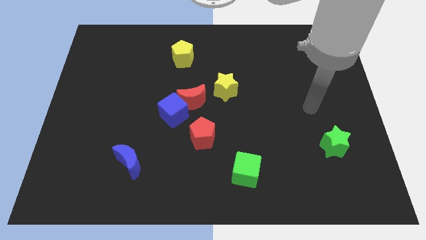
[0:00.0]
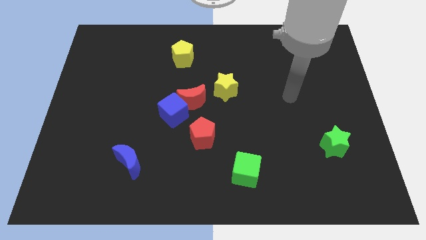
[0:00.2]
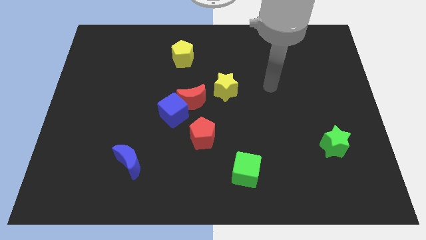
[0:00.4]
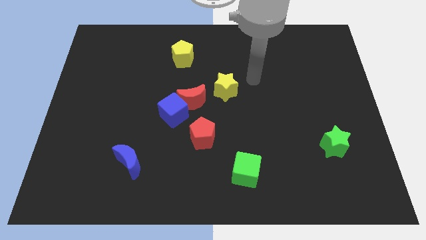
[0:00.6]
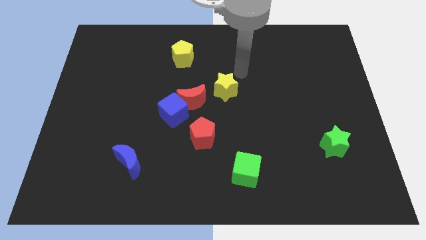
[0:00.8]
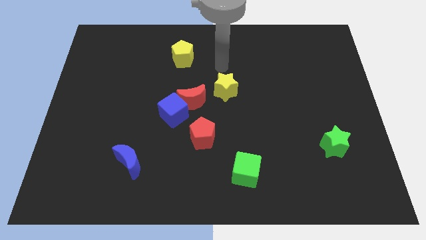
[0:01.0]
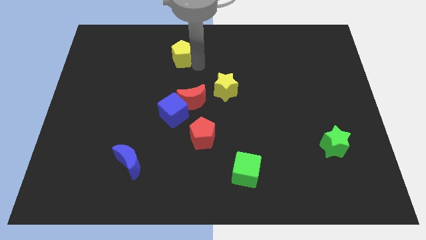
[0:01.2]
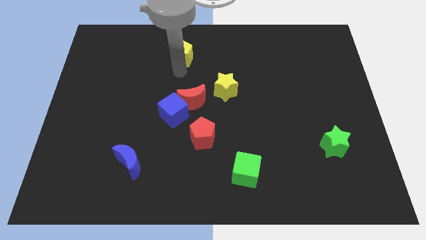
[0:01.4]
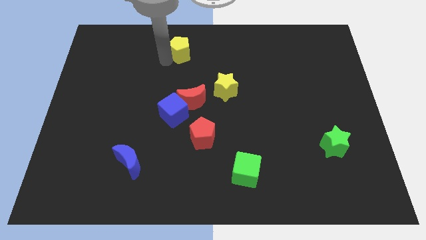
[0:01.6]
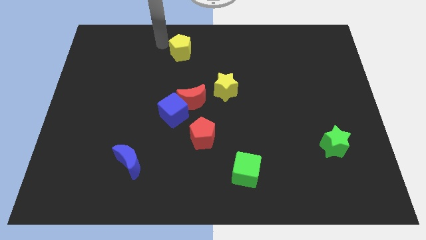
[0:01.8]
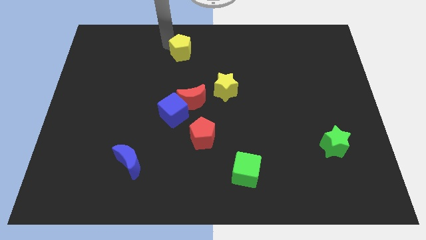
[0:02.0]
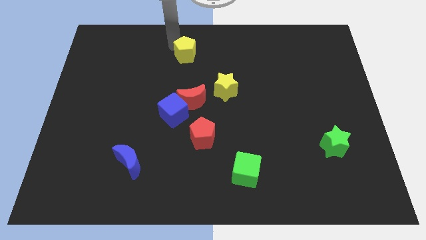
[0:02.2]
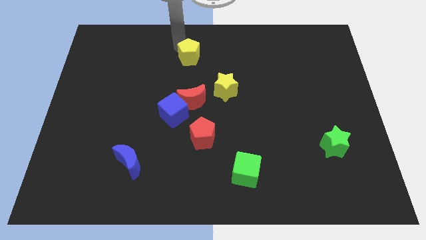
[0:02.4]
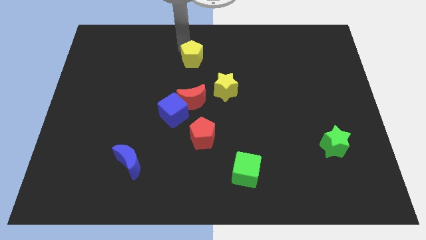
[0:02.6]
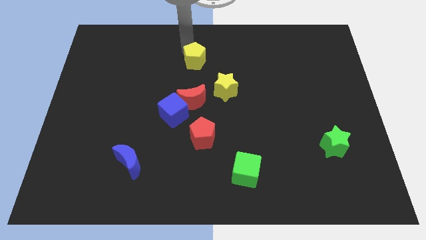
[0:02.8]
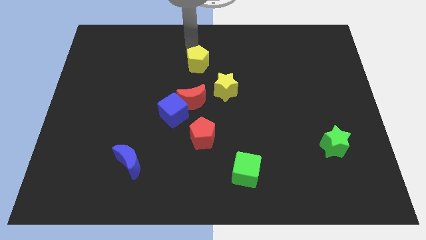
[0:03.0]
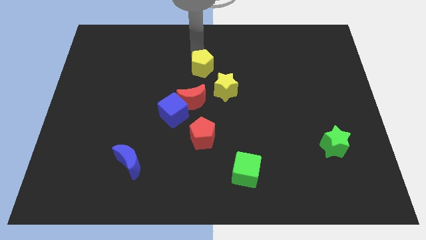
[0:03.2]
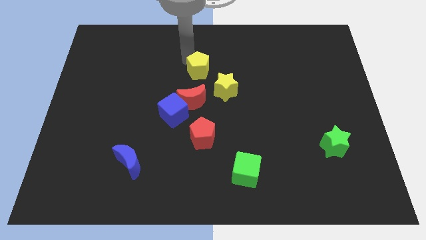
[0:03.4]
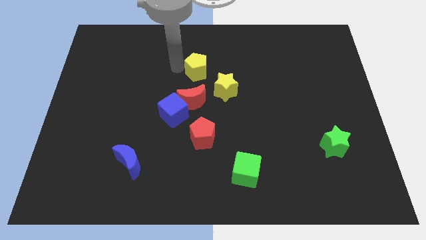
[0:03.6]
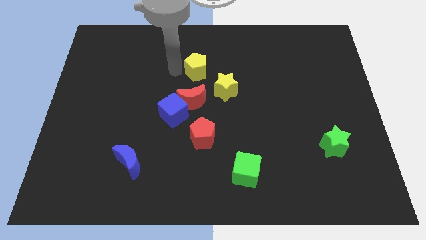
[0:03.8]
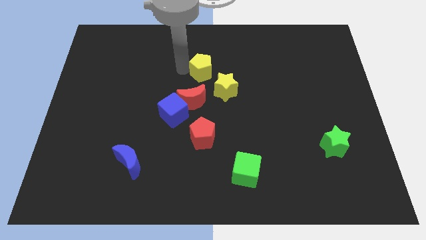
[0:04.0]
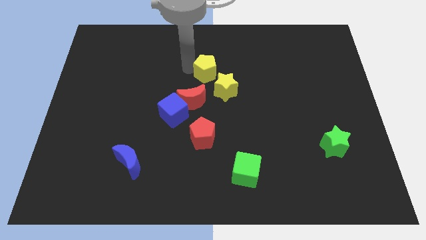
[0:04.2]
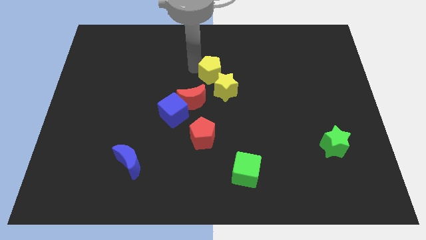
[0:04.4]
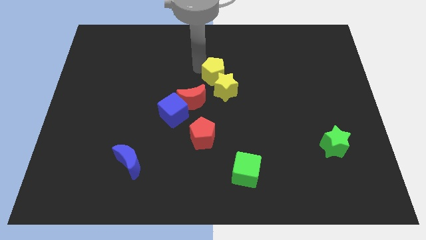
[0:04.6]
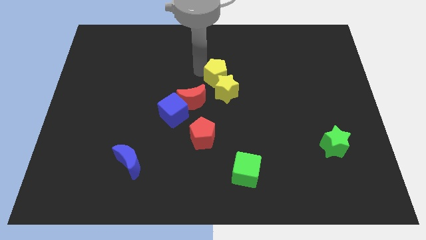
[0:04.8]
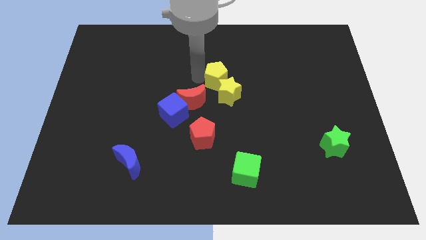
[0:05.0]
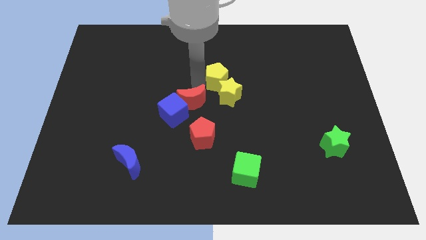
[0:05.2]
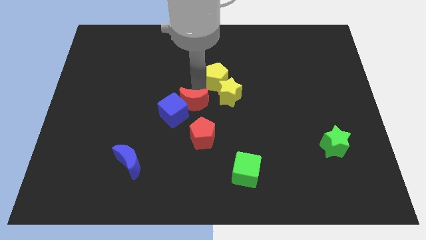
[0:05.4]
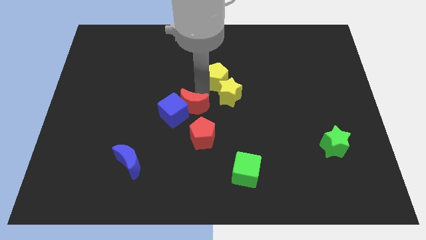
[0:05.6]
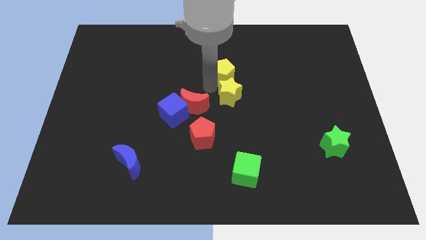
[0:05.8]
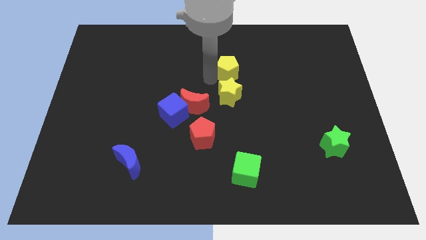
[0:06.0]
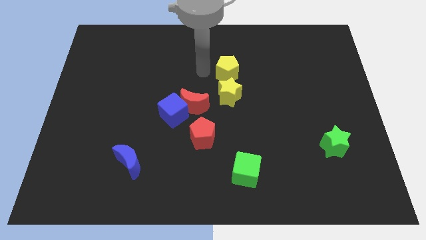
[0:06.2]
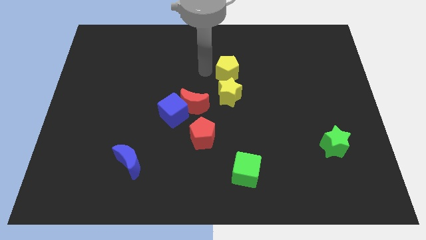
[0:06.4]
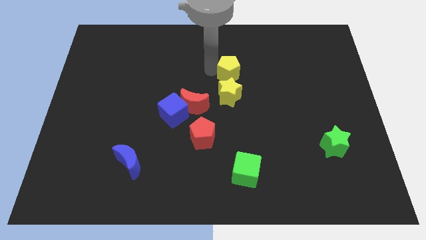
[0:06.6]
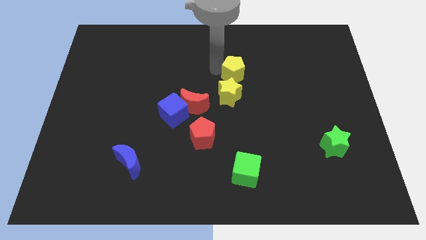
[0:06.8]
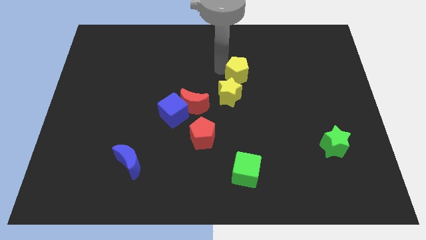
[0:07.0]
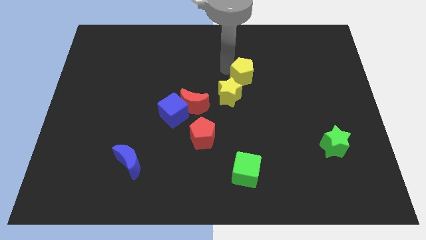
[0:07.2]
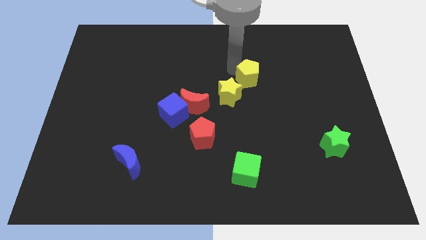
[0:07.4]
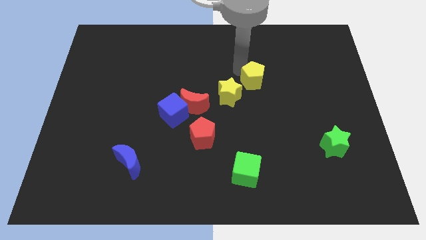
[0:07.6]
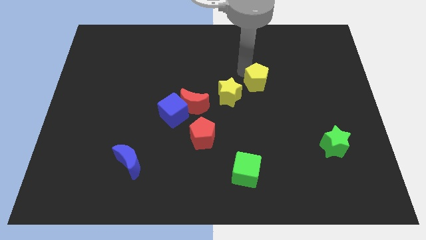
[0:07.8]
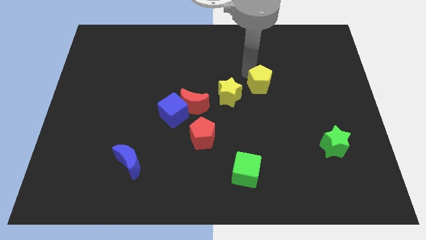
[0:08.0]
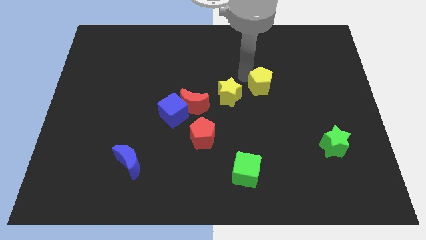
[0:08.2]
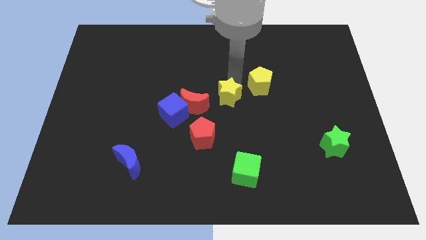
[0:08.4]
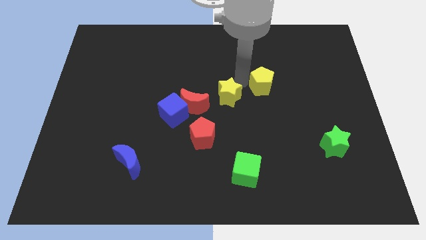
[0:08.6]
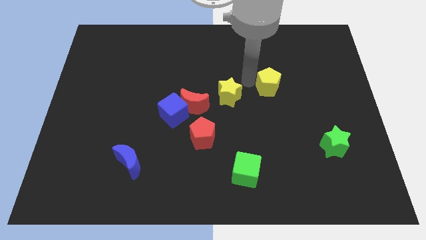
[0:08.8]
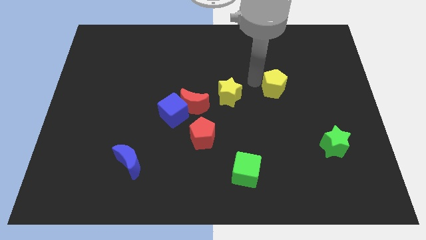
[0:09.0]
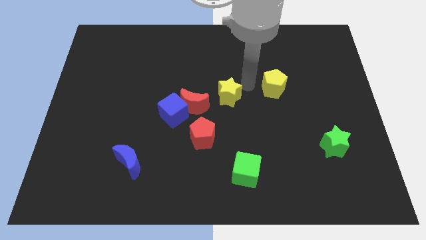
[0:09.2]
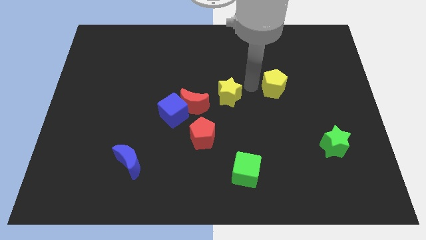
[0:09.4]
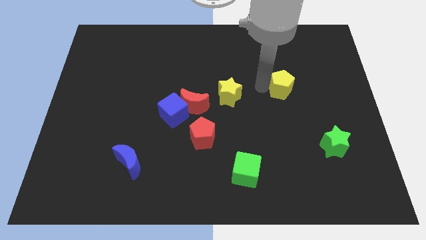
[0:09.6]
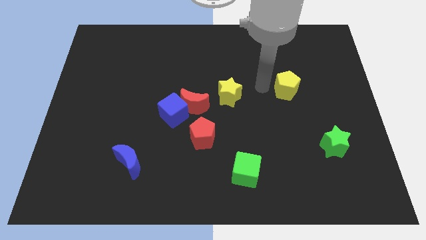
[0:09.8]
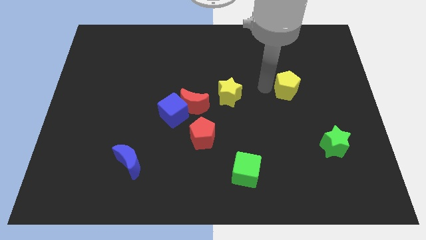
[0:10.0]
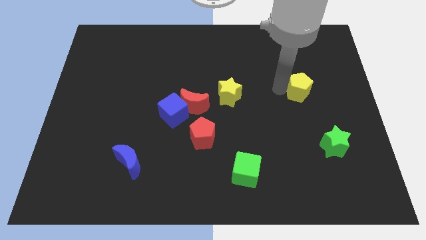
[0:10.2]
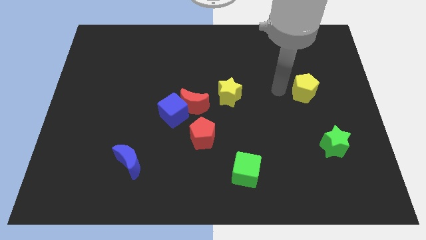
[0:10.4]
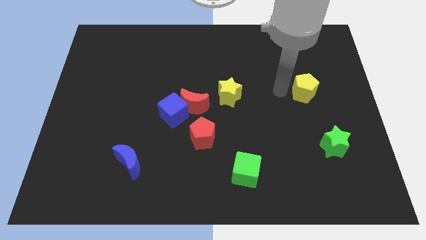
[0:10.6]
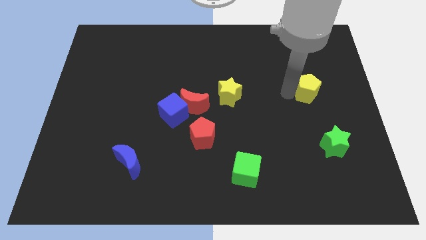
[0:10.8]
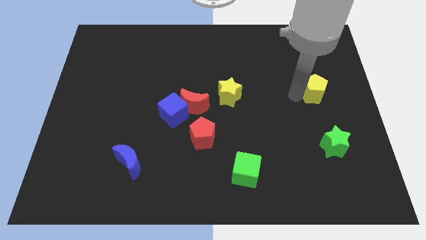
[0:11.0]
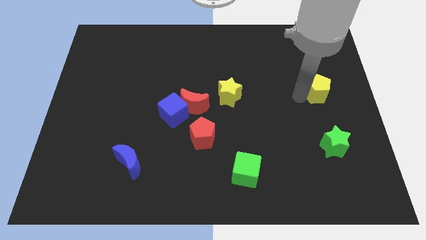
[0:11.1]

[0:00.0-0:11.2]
push the yellow pentagon to the right side of the board

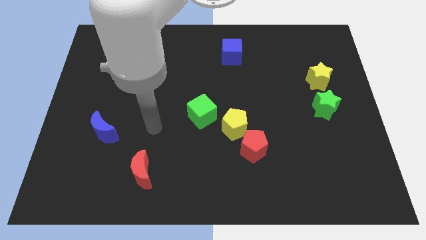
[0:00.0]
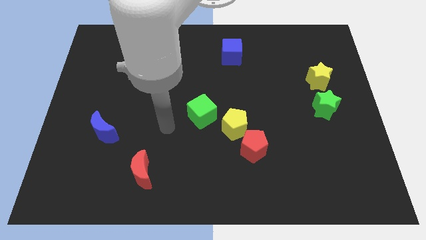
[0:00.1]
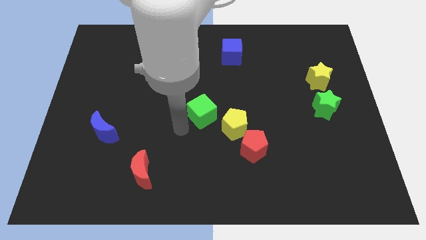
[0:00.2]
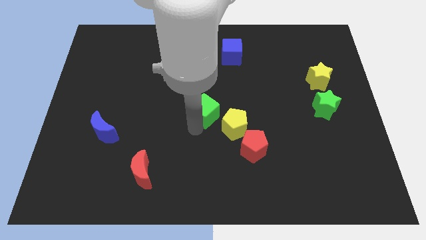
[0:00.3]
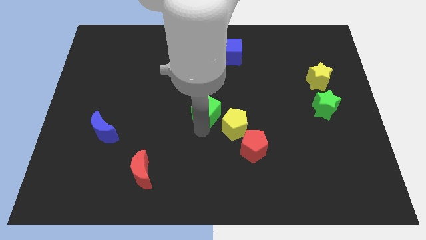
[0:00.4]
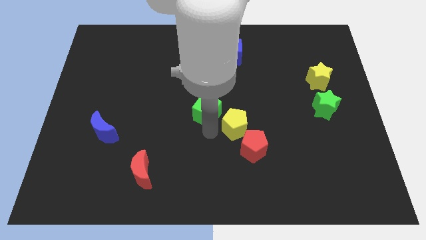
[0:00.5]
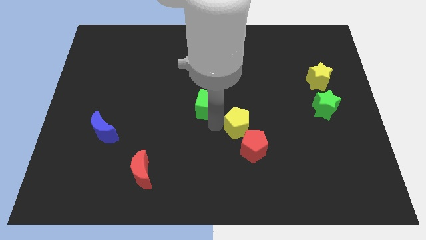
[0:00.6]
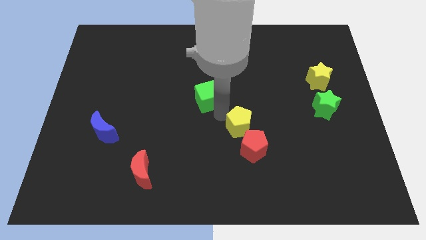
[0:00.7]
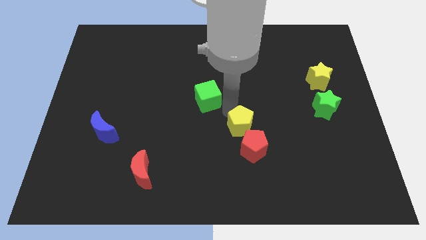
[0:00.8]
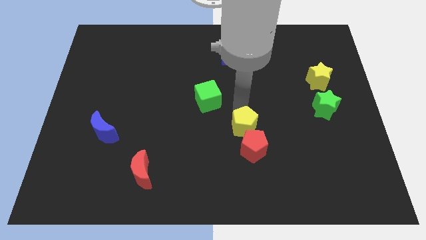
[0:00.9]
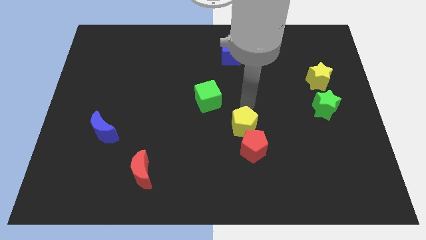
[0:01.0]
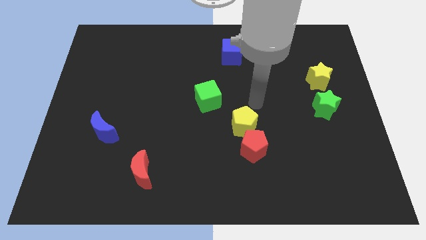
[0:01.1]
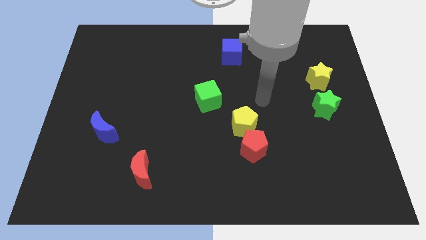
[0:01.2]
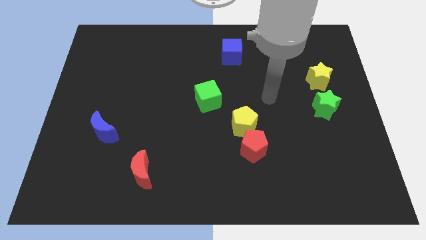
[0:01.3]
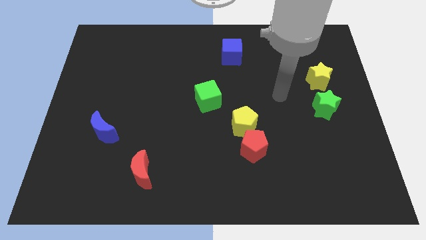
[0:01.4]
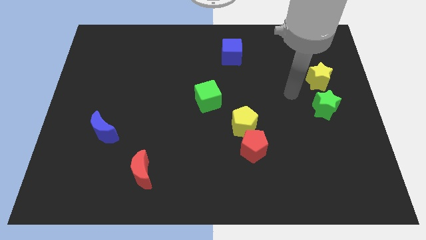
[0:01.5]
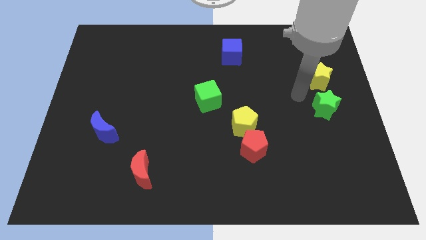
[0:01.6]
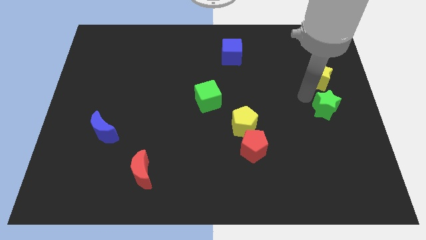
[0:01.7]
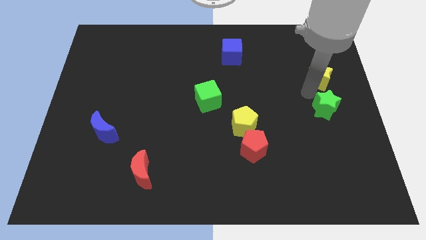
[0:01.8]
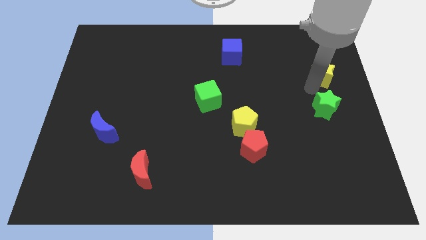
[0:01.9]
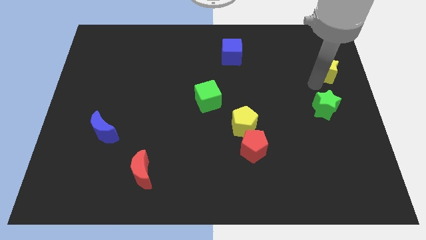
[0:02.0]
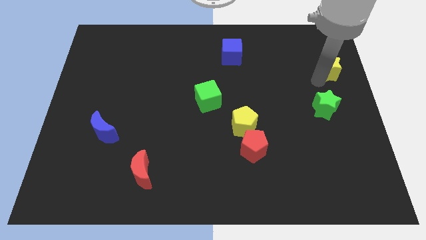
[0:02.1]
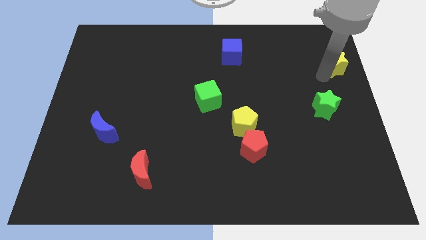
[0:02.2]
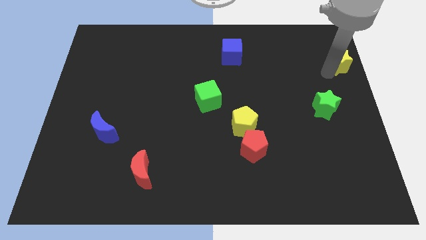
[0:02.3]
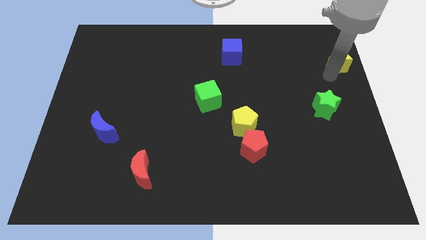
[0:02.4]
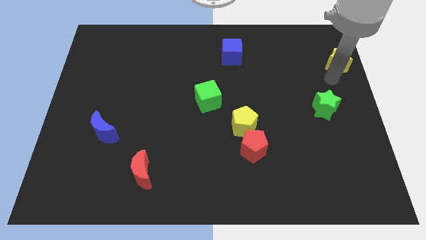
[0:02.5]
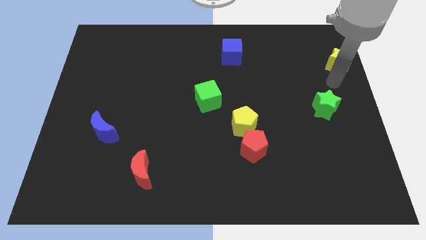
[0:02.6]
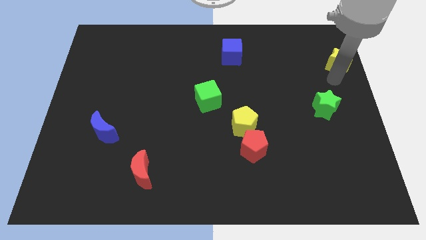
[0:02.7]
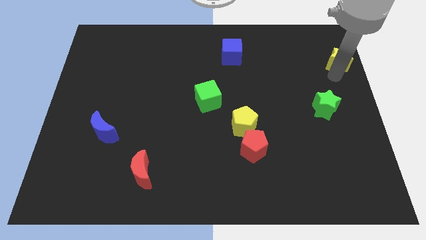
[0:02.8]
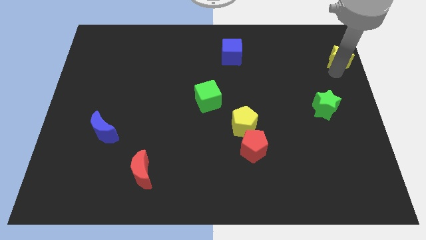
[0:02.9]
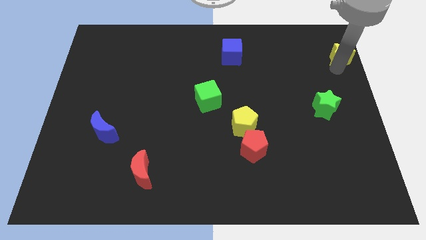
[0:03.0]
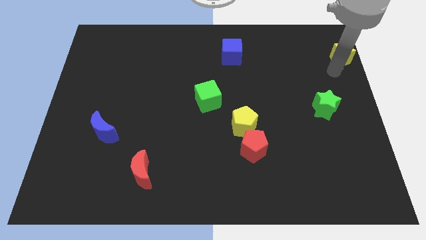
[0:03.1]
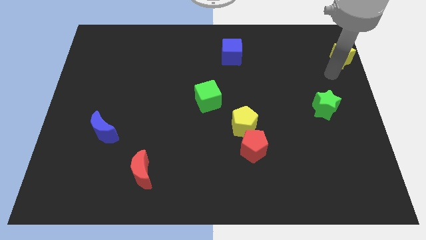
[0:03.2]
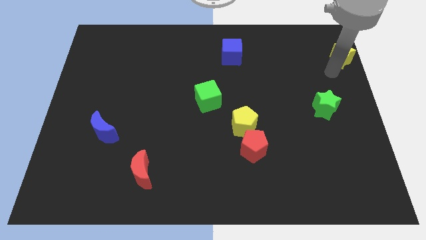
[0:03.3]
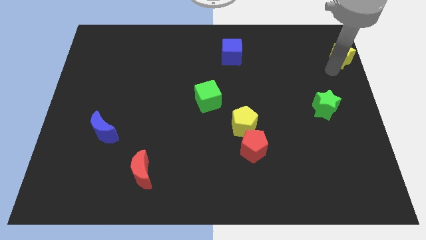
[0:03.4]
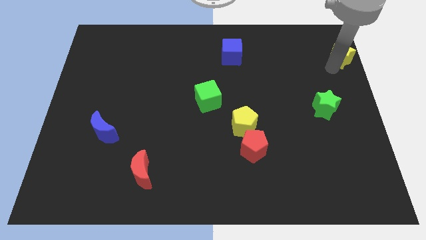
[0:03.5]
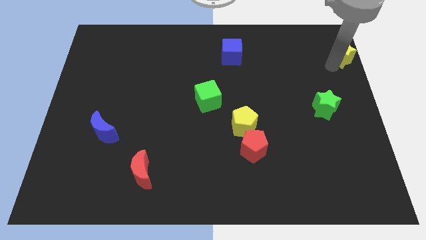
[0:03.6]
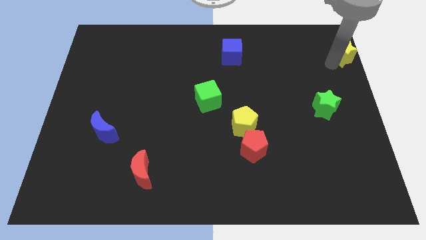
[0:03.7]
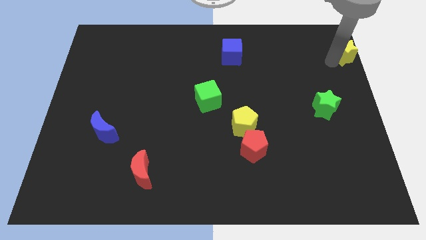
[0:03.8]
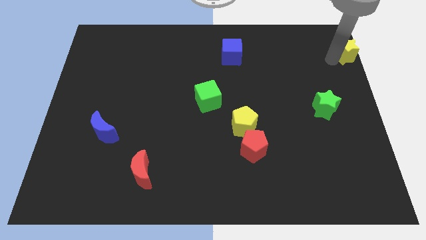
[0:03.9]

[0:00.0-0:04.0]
put the yellow star to the top right of the board
